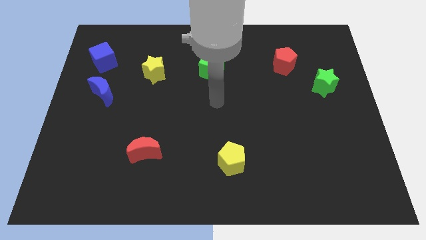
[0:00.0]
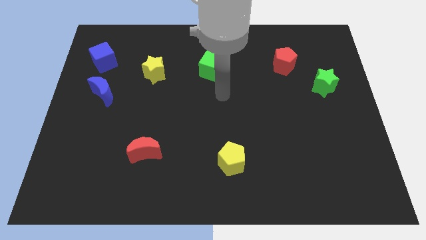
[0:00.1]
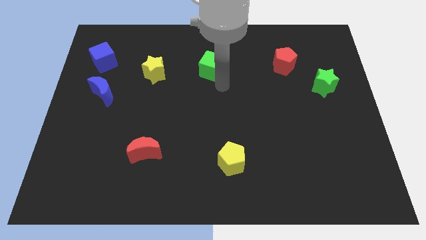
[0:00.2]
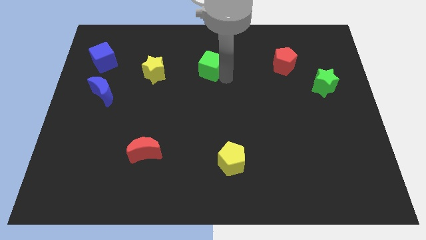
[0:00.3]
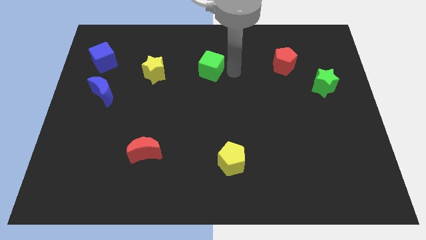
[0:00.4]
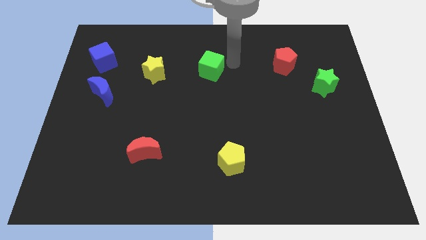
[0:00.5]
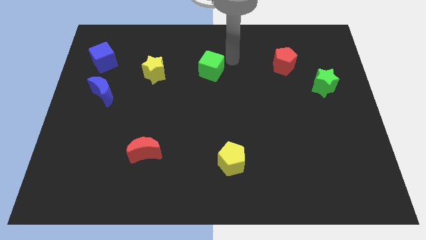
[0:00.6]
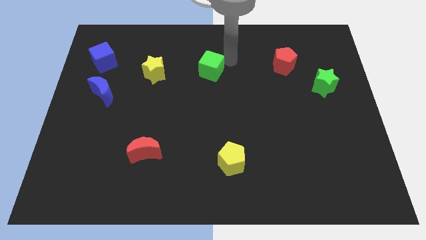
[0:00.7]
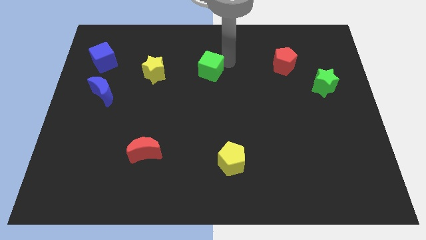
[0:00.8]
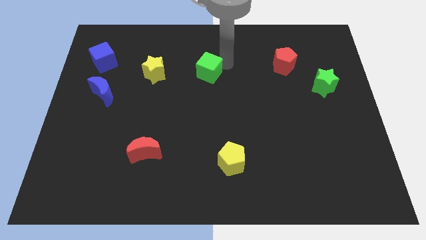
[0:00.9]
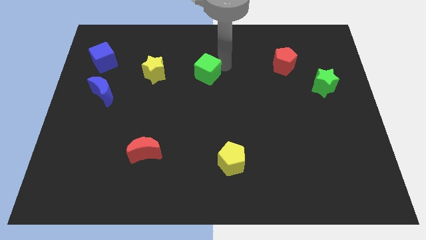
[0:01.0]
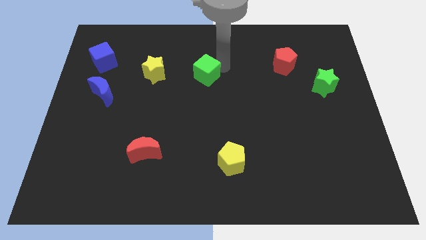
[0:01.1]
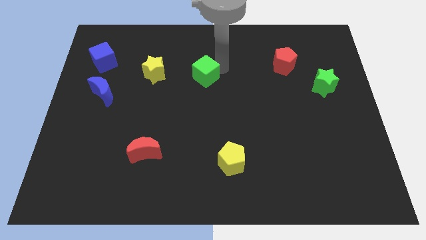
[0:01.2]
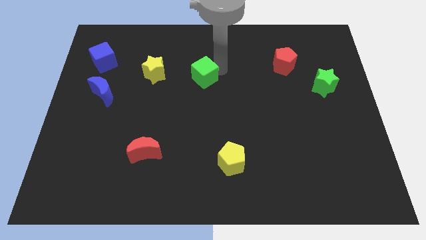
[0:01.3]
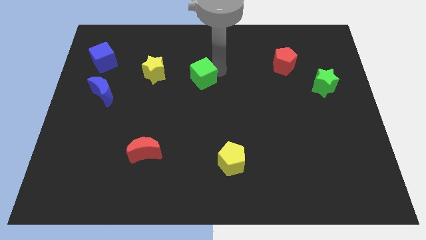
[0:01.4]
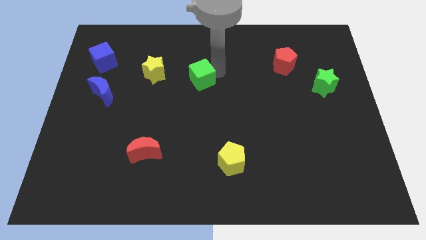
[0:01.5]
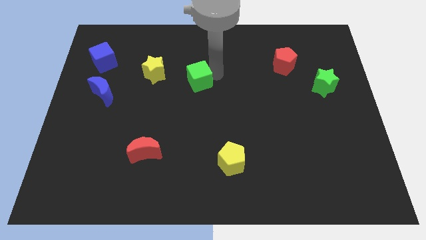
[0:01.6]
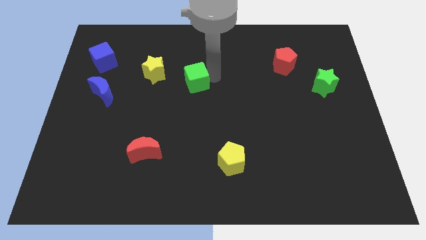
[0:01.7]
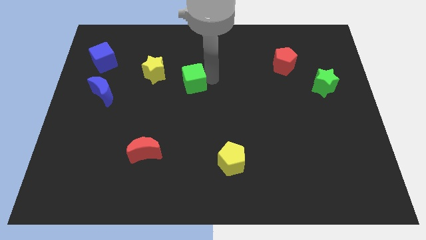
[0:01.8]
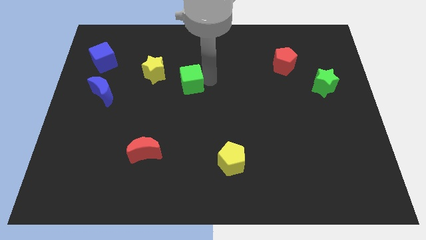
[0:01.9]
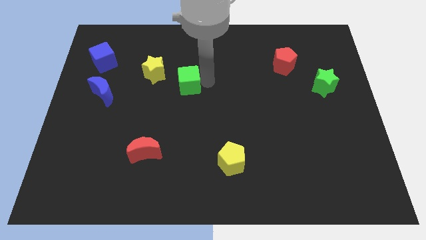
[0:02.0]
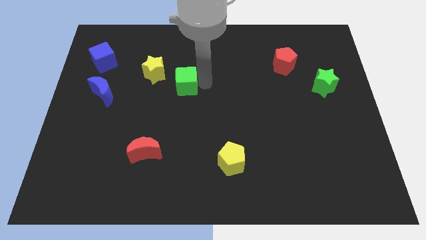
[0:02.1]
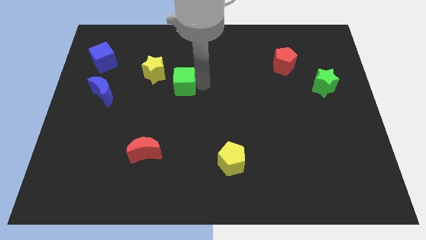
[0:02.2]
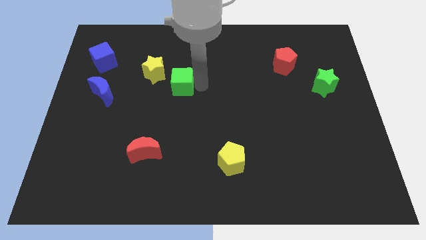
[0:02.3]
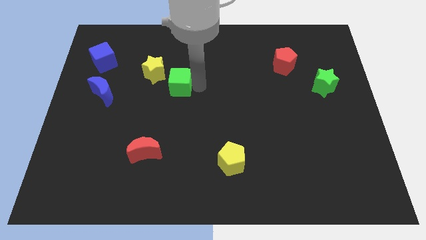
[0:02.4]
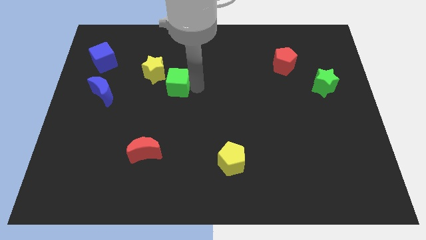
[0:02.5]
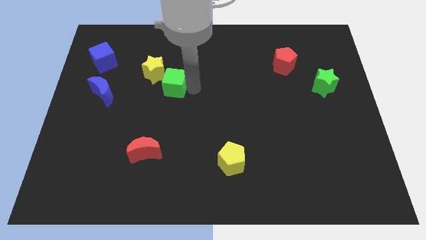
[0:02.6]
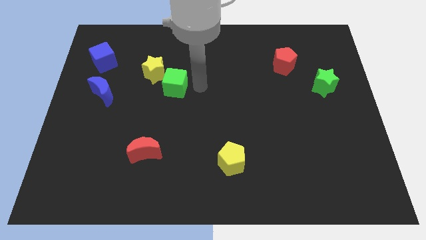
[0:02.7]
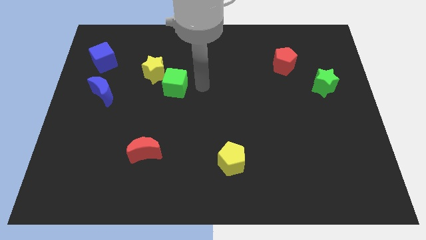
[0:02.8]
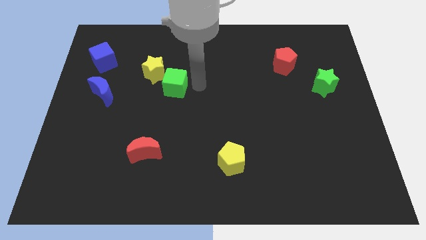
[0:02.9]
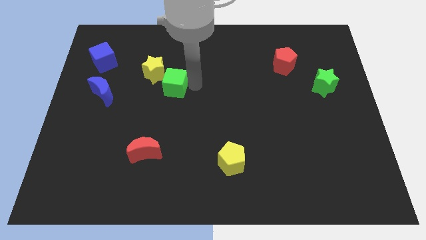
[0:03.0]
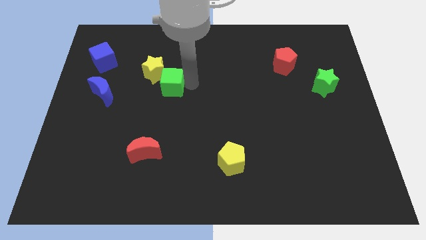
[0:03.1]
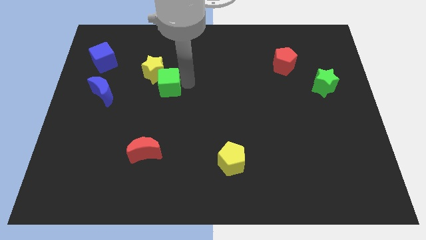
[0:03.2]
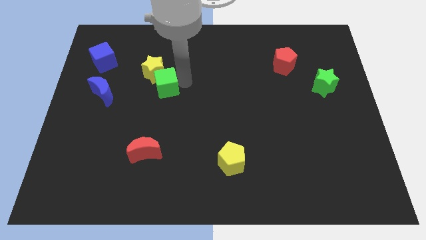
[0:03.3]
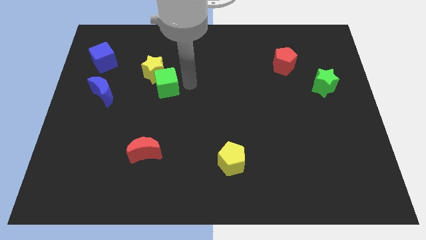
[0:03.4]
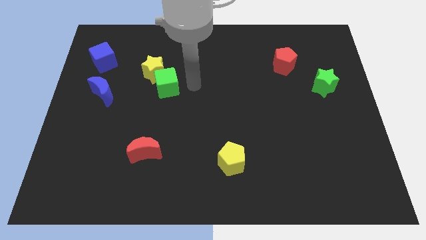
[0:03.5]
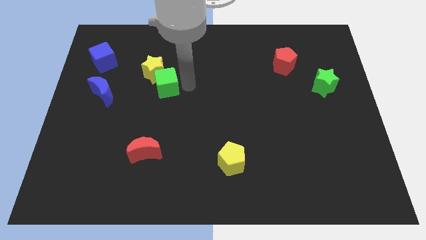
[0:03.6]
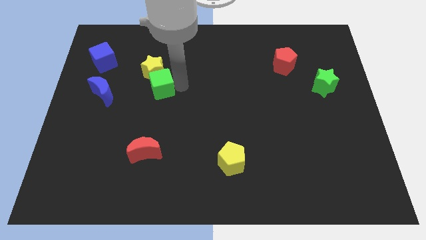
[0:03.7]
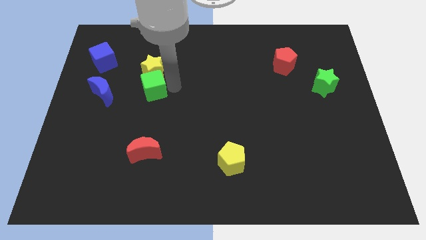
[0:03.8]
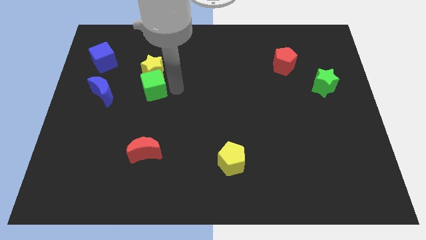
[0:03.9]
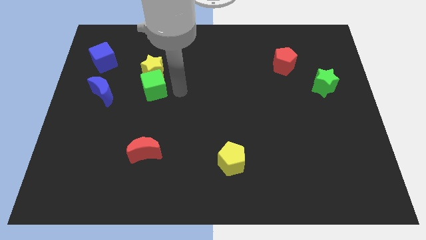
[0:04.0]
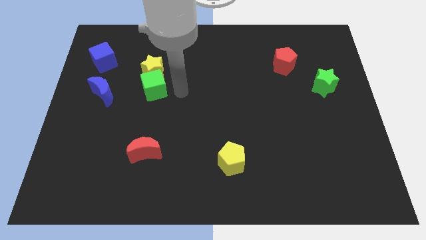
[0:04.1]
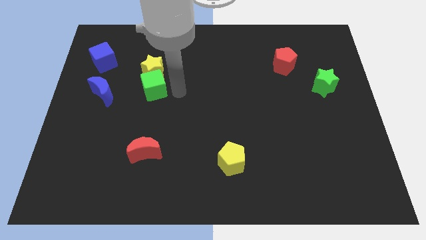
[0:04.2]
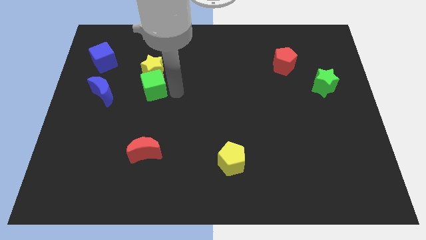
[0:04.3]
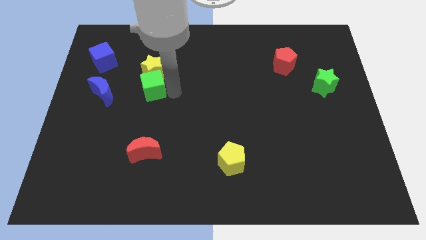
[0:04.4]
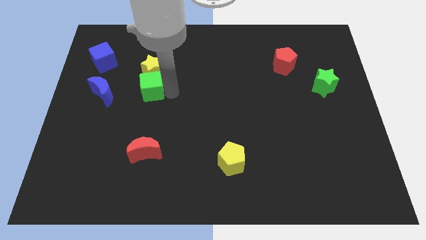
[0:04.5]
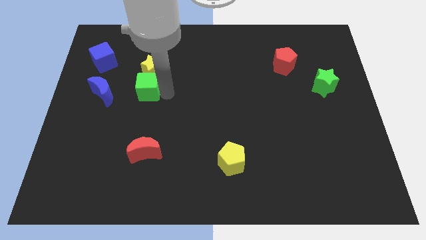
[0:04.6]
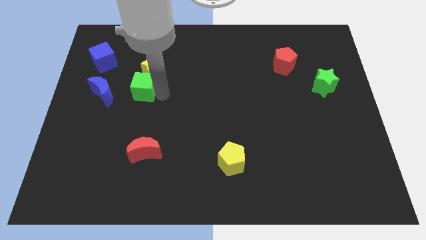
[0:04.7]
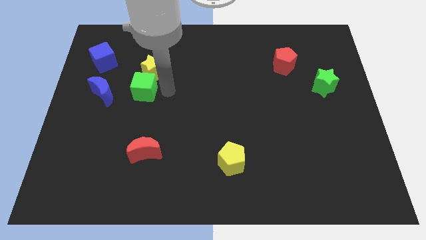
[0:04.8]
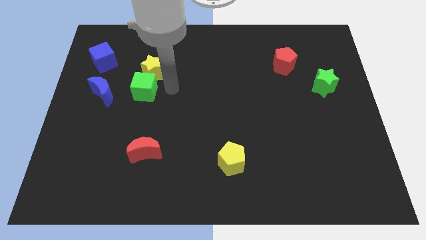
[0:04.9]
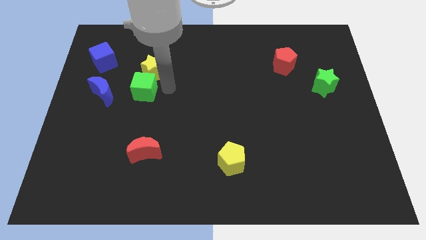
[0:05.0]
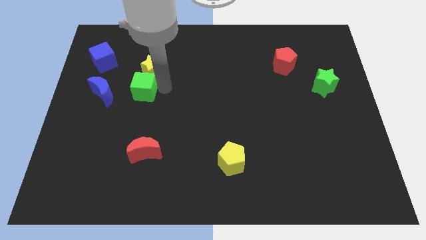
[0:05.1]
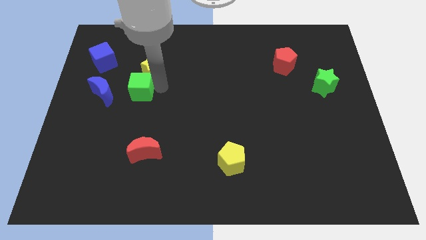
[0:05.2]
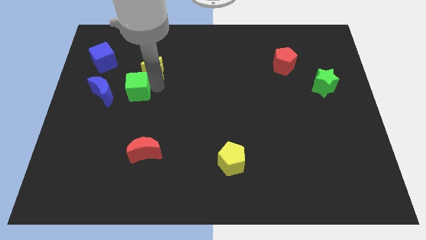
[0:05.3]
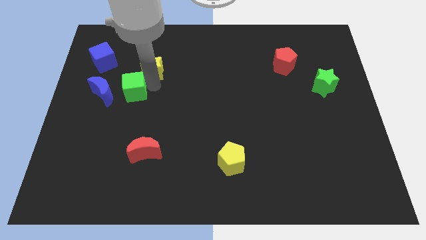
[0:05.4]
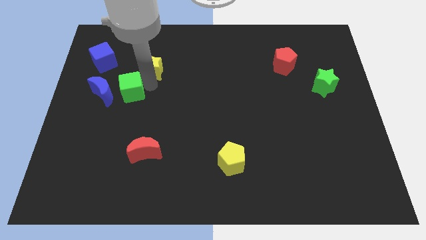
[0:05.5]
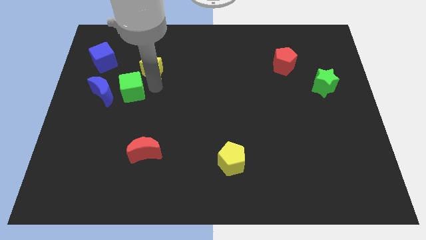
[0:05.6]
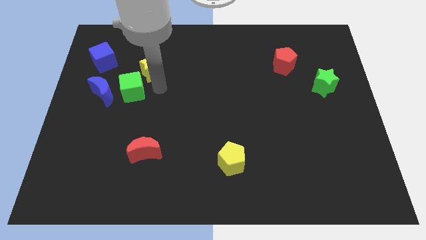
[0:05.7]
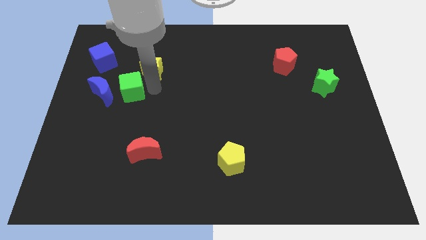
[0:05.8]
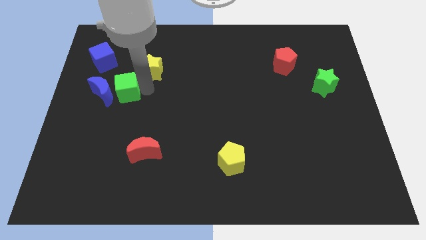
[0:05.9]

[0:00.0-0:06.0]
put the green cube towards the blue moon
